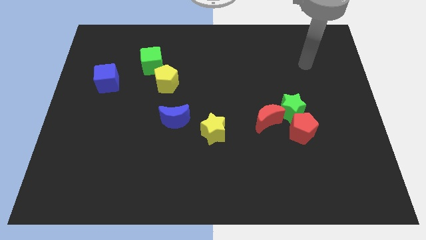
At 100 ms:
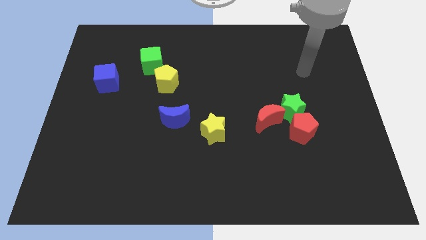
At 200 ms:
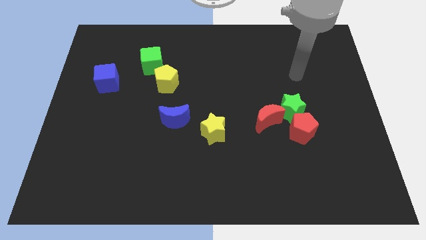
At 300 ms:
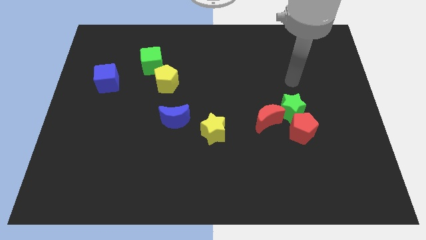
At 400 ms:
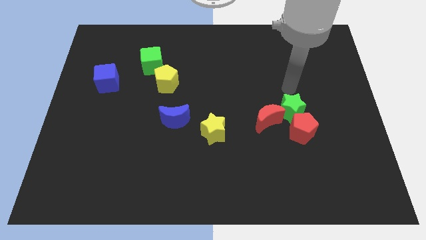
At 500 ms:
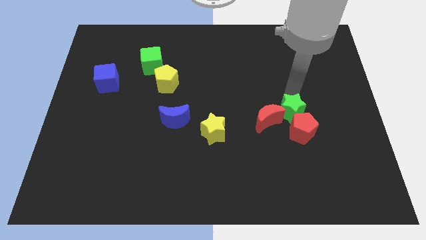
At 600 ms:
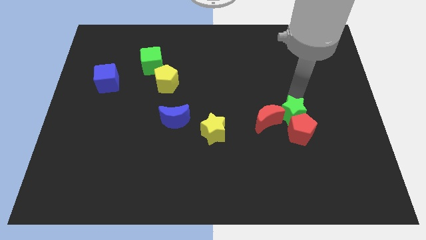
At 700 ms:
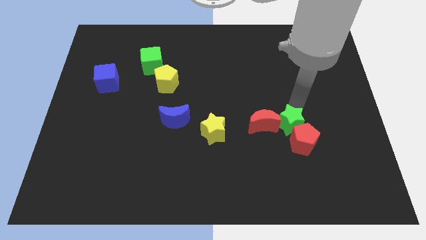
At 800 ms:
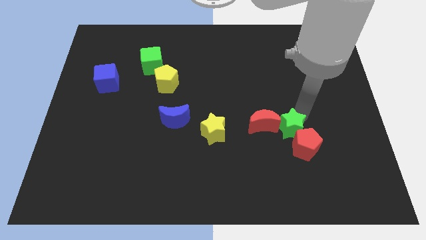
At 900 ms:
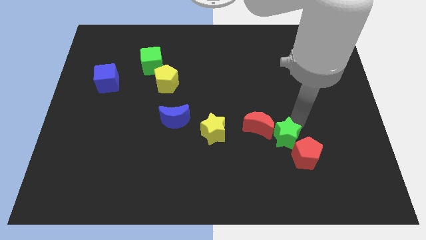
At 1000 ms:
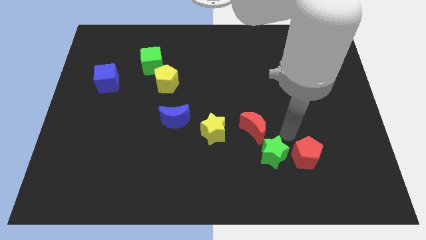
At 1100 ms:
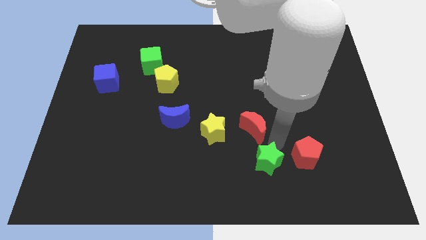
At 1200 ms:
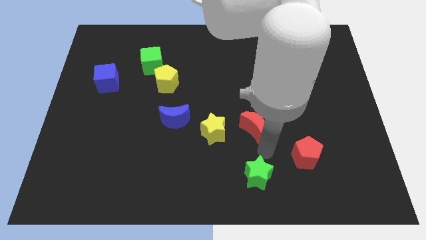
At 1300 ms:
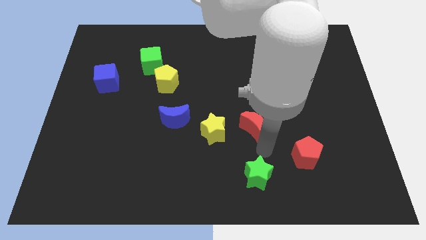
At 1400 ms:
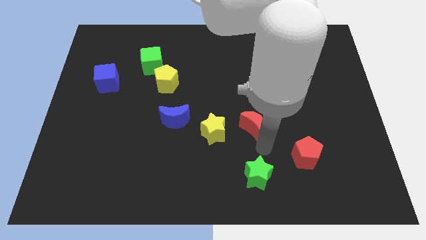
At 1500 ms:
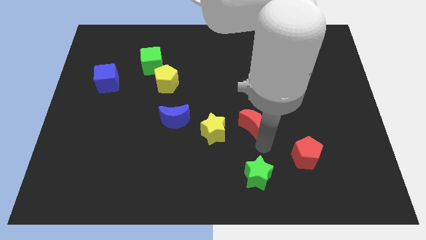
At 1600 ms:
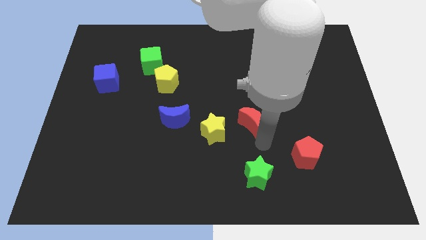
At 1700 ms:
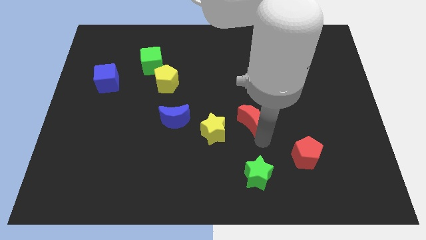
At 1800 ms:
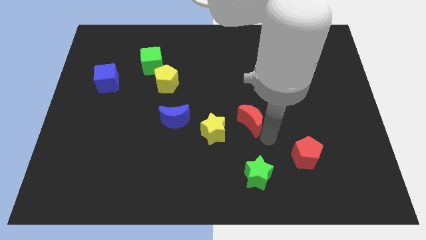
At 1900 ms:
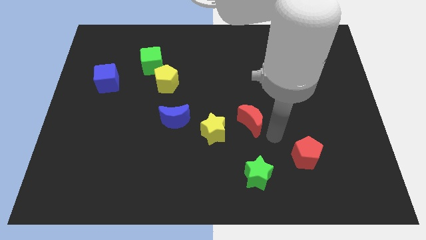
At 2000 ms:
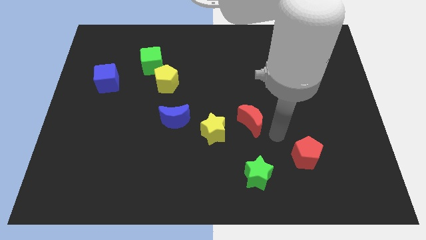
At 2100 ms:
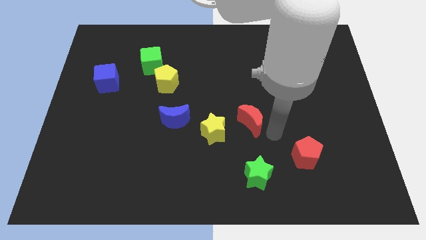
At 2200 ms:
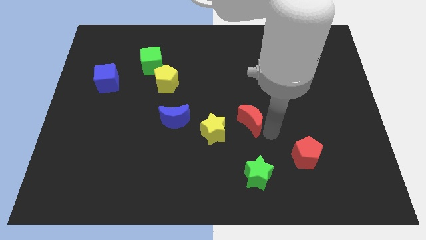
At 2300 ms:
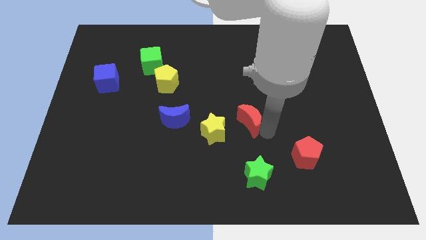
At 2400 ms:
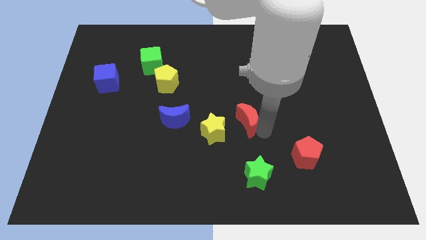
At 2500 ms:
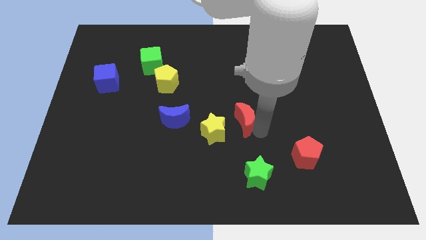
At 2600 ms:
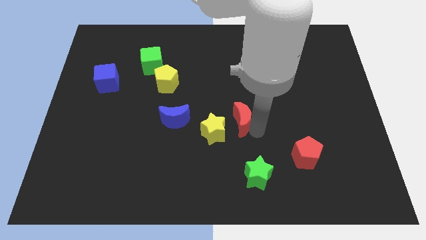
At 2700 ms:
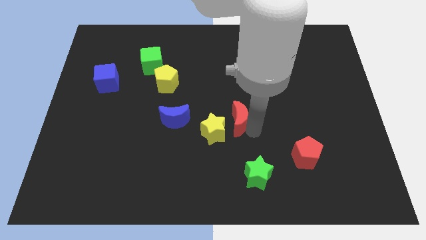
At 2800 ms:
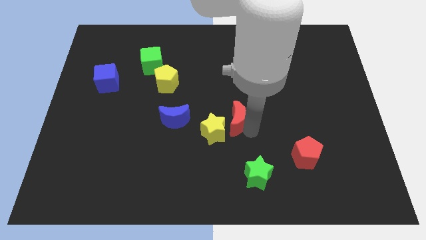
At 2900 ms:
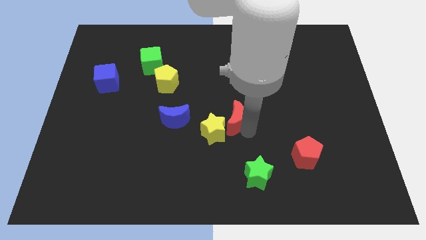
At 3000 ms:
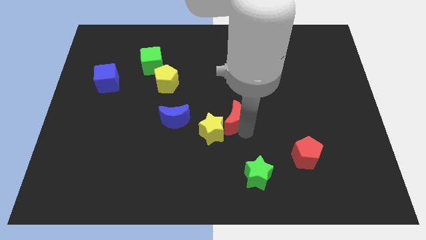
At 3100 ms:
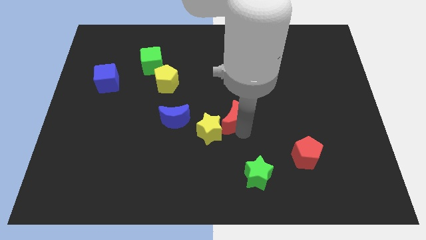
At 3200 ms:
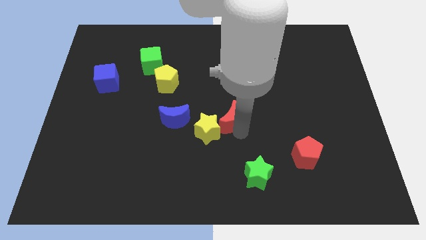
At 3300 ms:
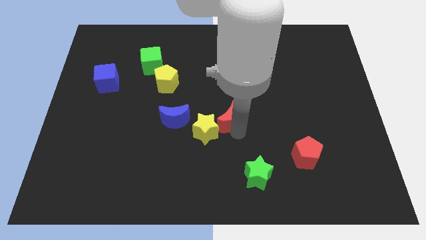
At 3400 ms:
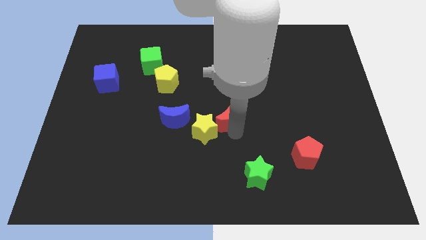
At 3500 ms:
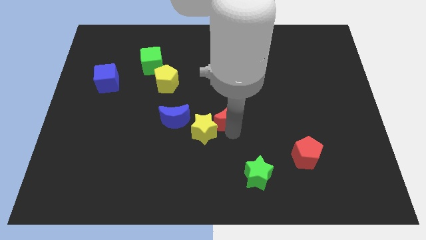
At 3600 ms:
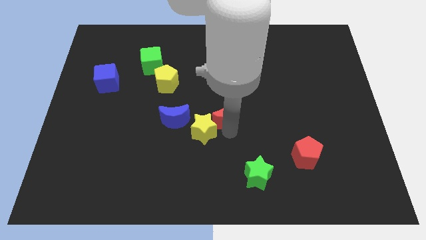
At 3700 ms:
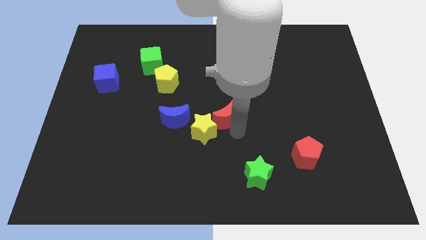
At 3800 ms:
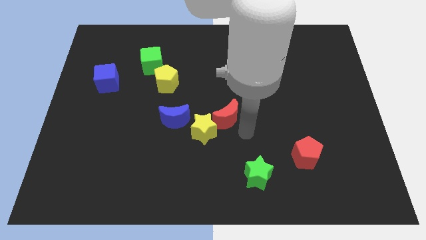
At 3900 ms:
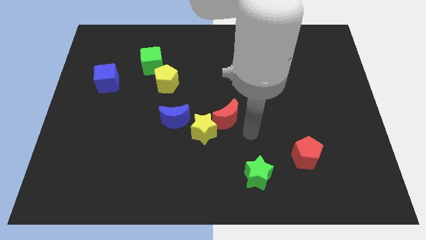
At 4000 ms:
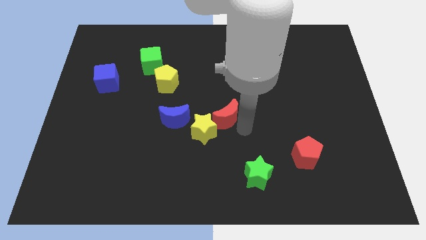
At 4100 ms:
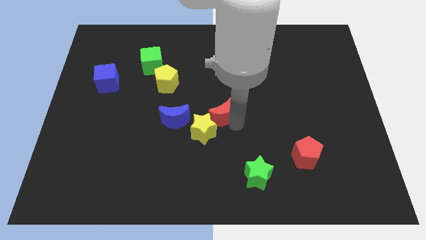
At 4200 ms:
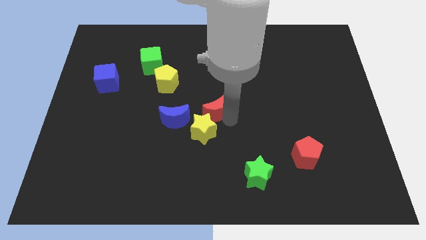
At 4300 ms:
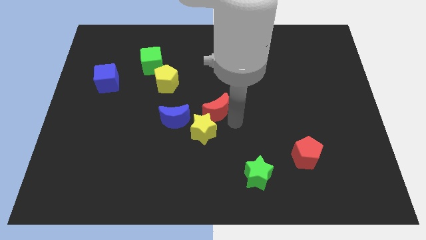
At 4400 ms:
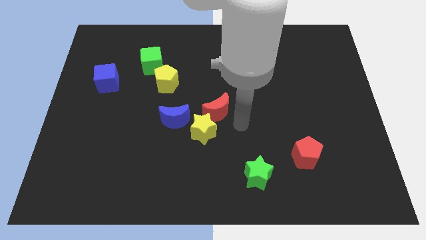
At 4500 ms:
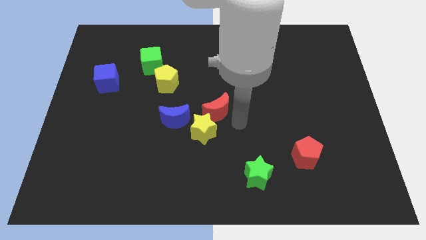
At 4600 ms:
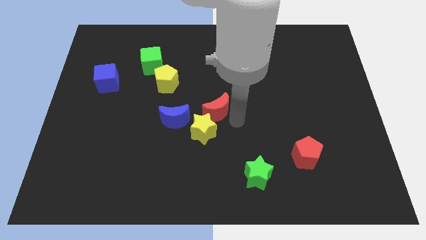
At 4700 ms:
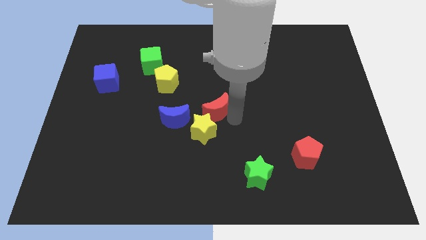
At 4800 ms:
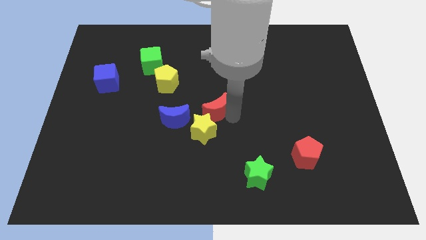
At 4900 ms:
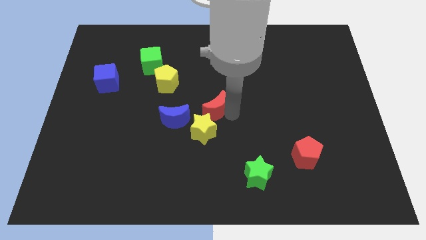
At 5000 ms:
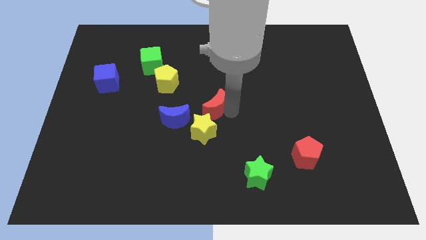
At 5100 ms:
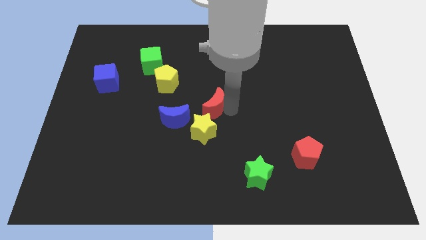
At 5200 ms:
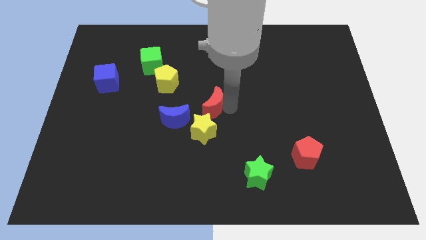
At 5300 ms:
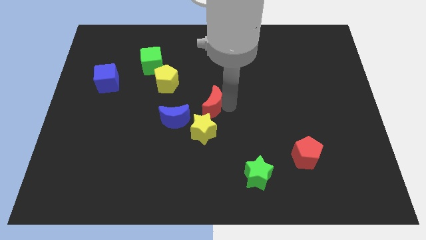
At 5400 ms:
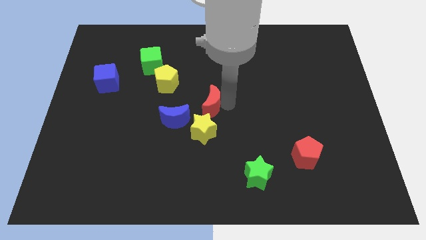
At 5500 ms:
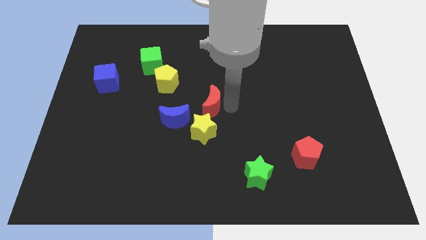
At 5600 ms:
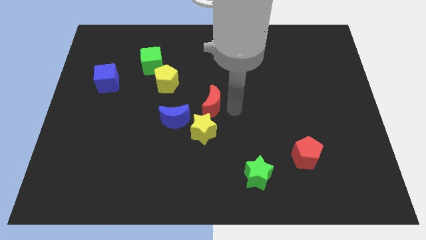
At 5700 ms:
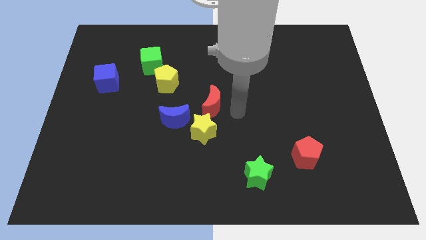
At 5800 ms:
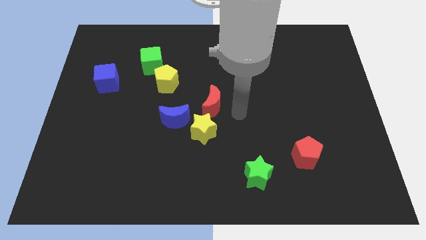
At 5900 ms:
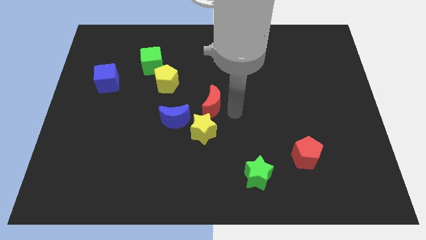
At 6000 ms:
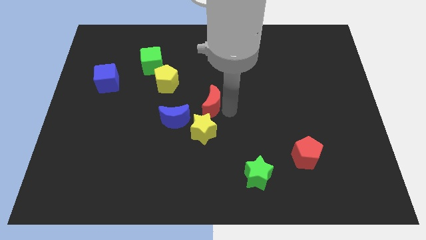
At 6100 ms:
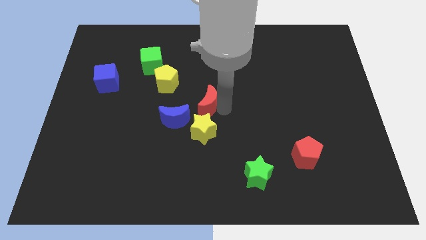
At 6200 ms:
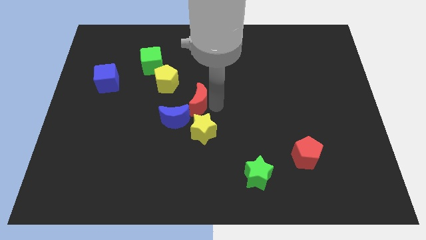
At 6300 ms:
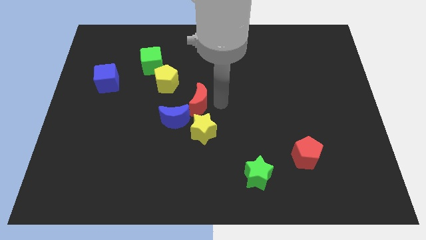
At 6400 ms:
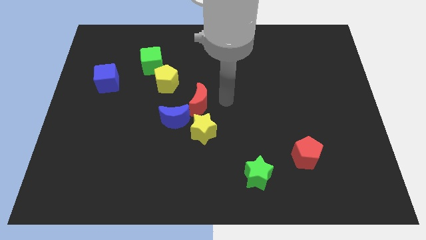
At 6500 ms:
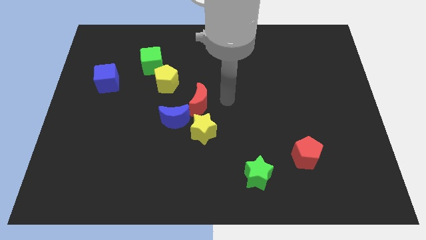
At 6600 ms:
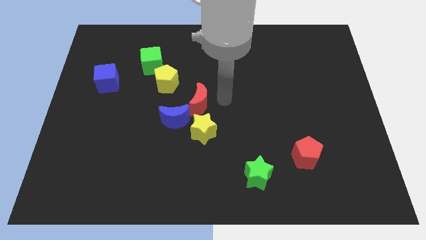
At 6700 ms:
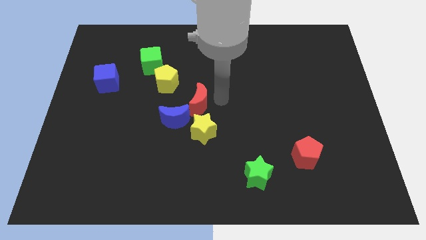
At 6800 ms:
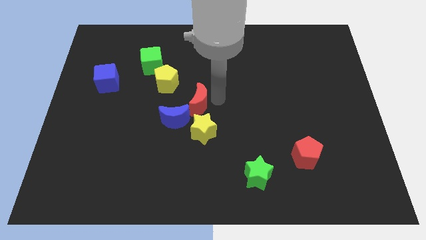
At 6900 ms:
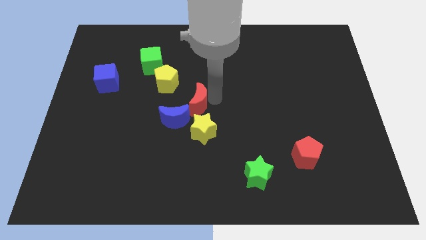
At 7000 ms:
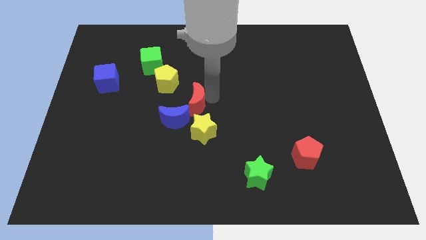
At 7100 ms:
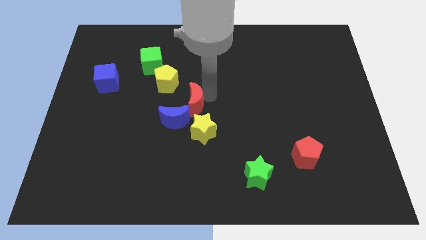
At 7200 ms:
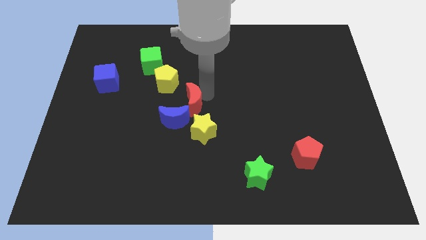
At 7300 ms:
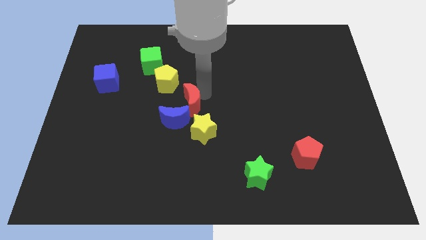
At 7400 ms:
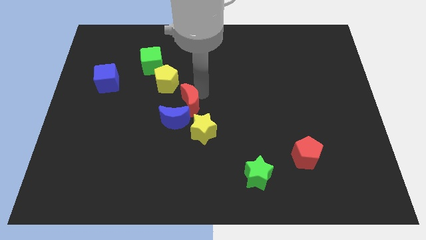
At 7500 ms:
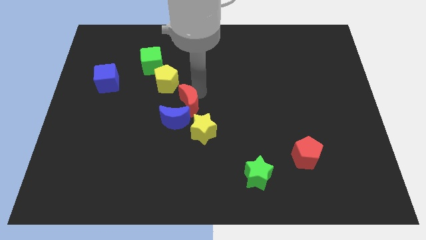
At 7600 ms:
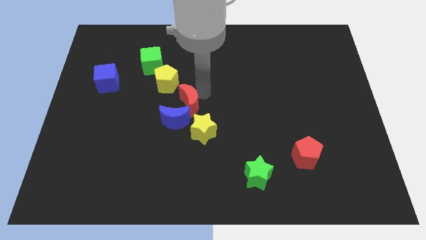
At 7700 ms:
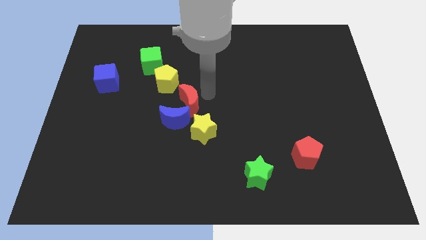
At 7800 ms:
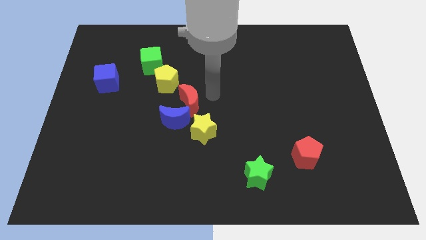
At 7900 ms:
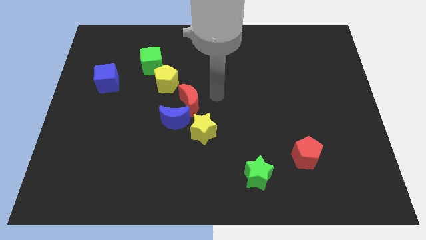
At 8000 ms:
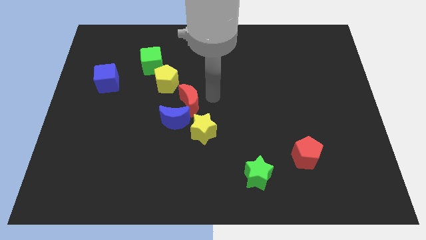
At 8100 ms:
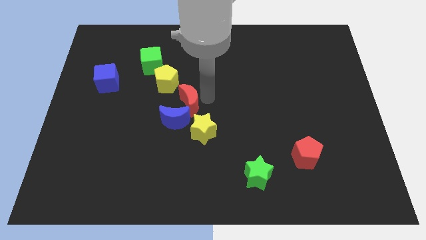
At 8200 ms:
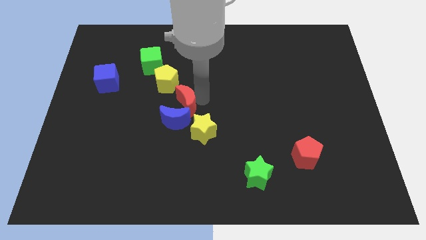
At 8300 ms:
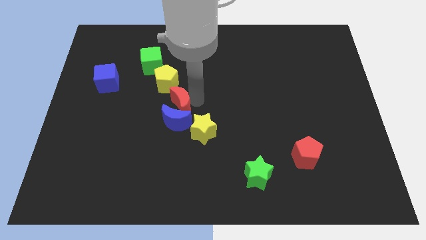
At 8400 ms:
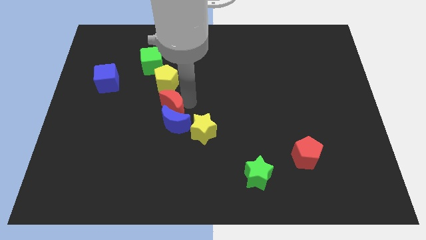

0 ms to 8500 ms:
push the red moon to the left
